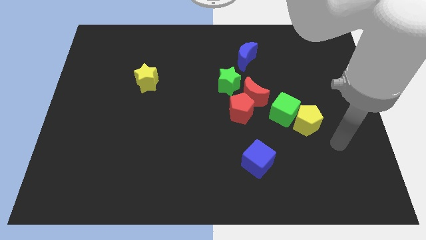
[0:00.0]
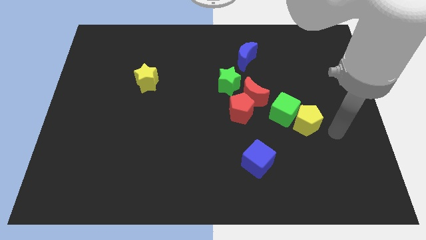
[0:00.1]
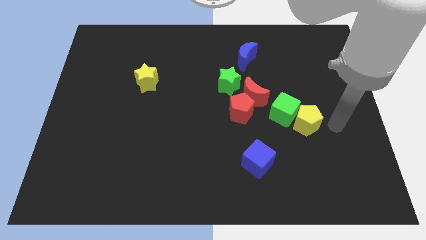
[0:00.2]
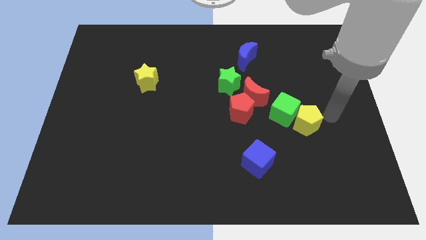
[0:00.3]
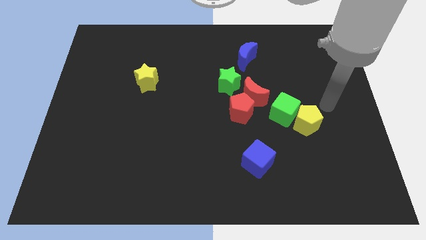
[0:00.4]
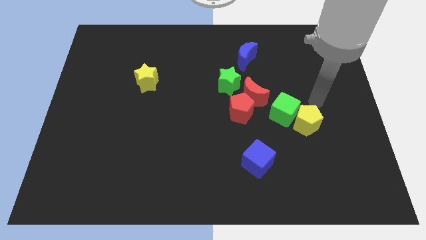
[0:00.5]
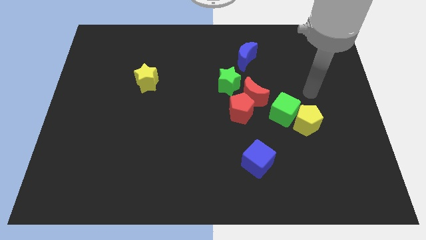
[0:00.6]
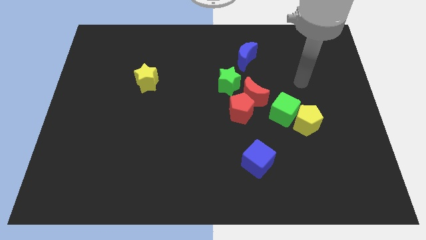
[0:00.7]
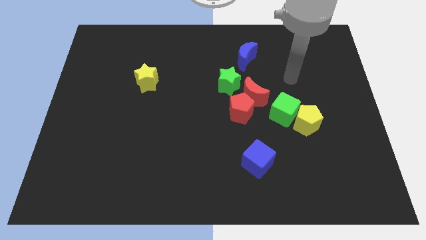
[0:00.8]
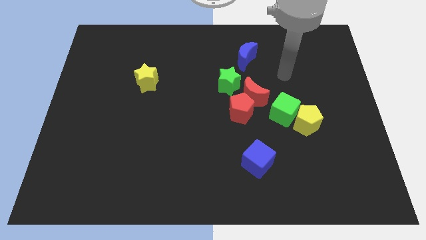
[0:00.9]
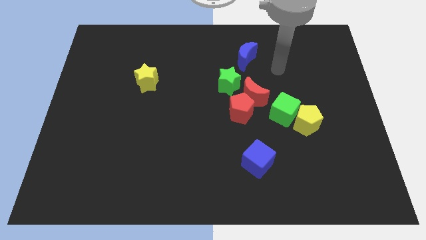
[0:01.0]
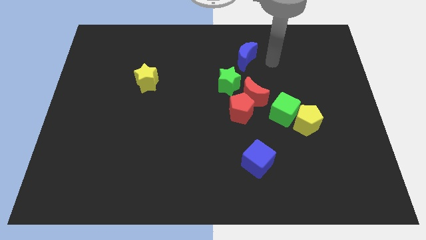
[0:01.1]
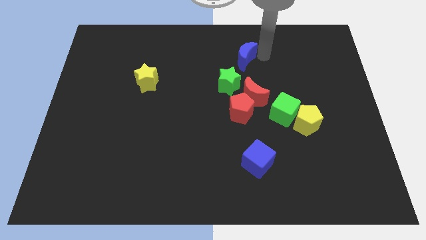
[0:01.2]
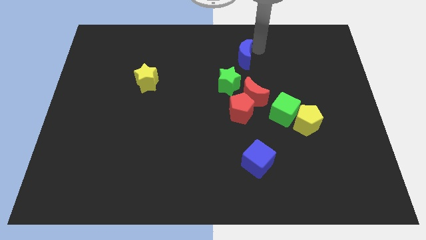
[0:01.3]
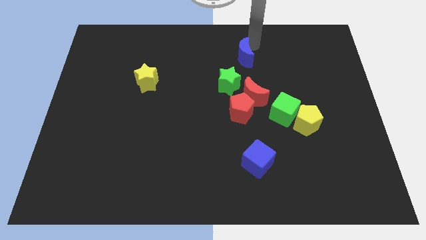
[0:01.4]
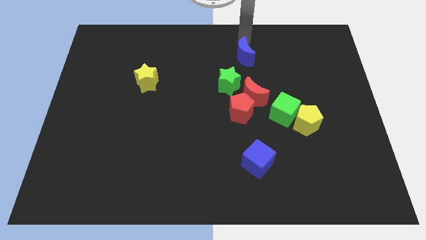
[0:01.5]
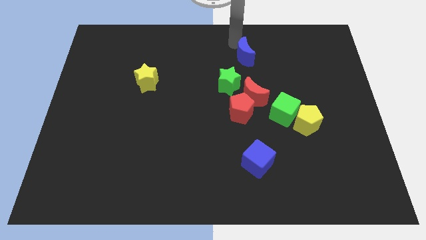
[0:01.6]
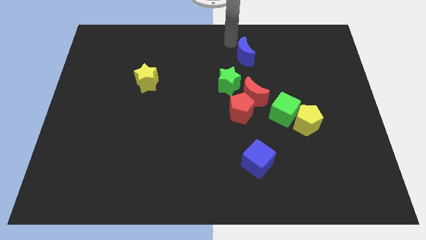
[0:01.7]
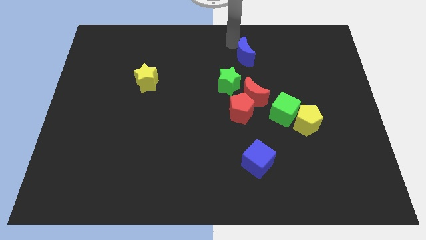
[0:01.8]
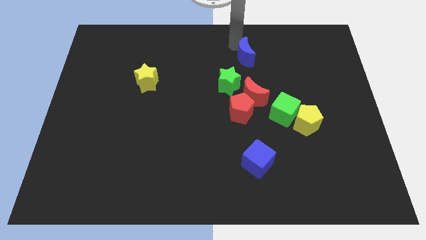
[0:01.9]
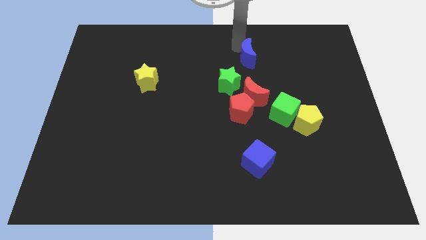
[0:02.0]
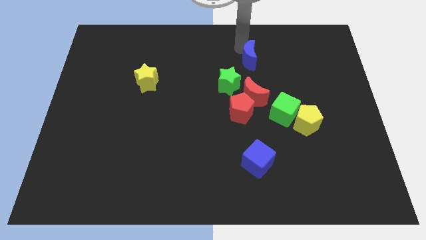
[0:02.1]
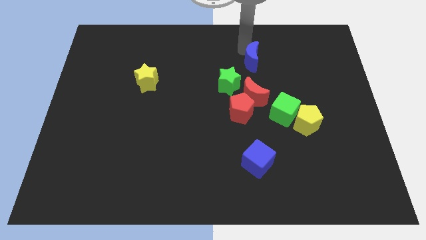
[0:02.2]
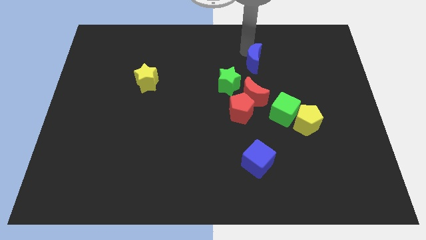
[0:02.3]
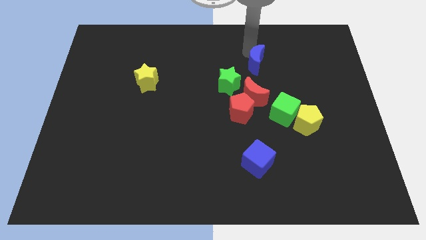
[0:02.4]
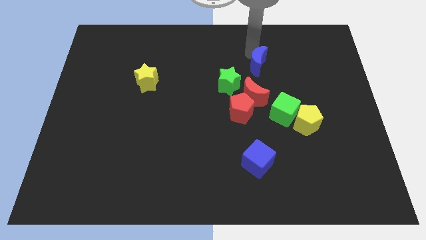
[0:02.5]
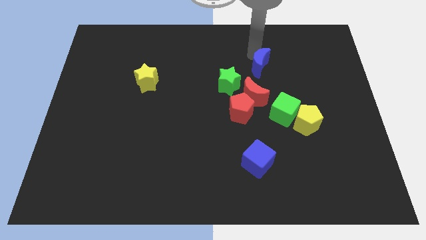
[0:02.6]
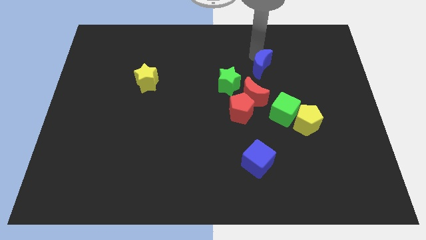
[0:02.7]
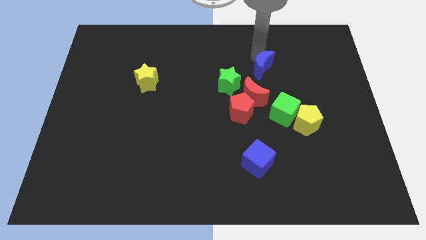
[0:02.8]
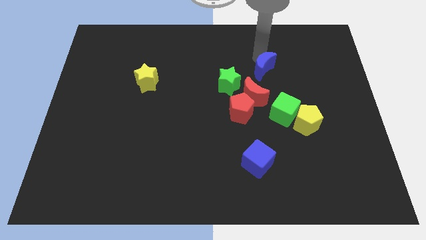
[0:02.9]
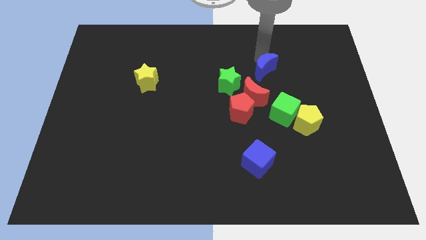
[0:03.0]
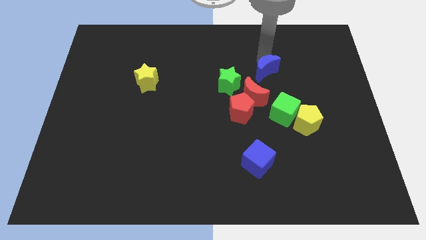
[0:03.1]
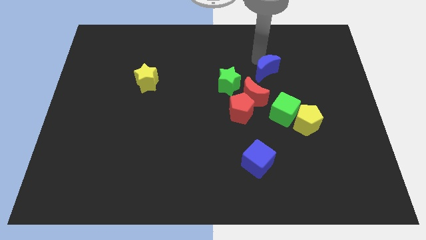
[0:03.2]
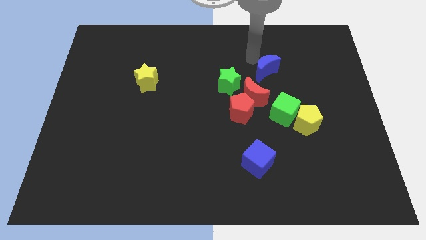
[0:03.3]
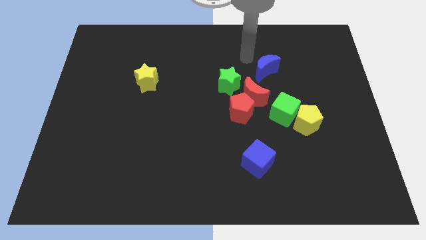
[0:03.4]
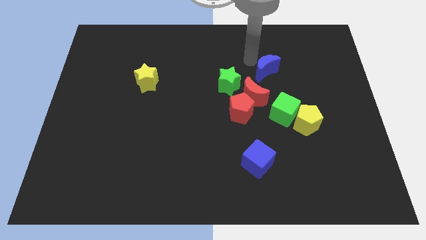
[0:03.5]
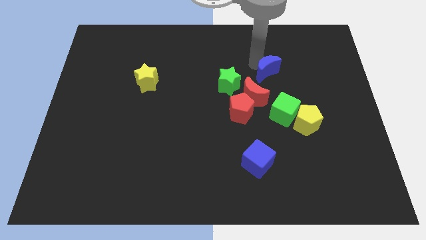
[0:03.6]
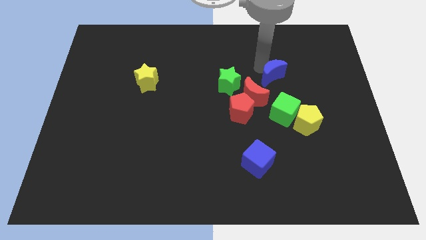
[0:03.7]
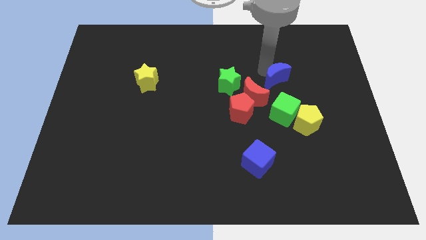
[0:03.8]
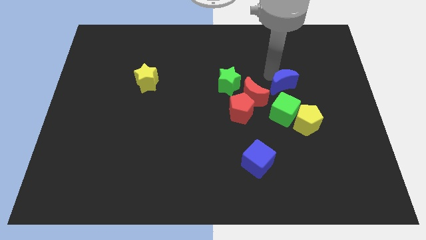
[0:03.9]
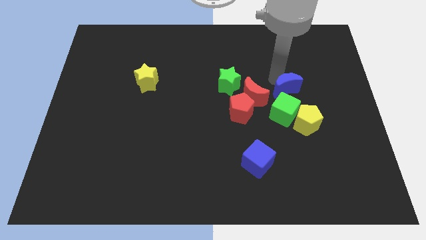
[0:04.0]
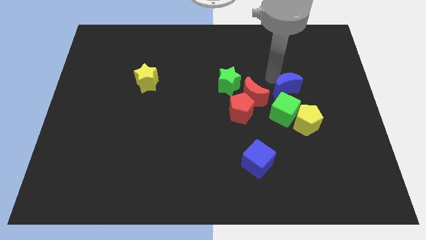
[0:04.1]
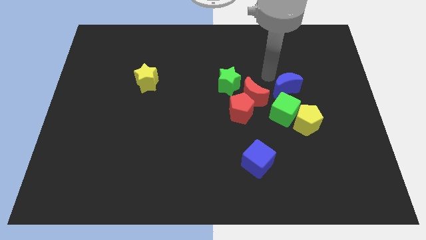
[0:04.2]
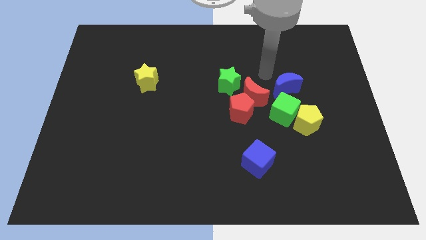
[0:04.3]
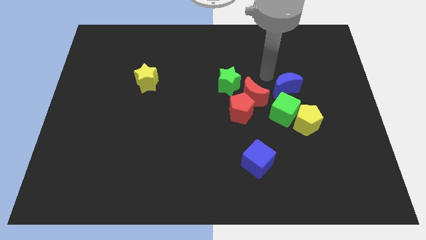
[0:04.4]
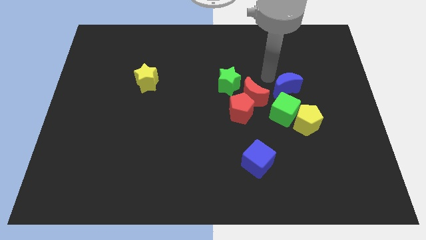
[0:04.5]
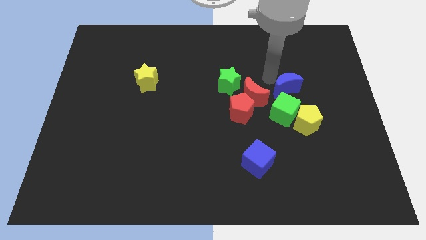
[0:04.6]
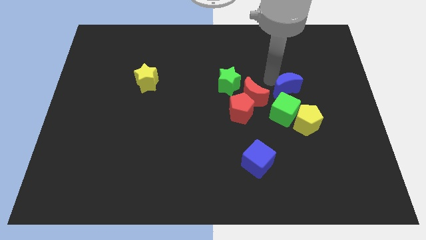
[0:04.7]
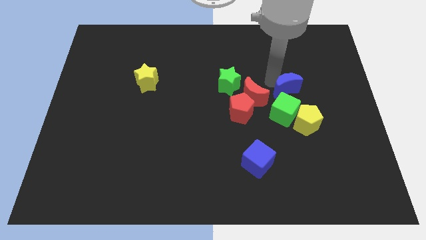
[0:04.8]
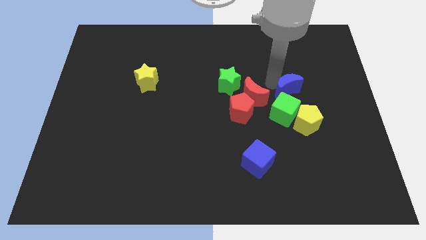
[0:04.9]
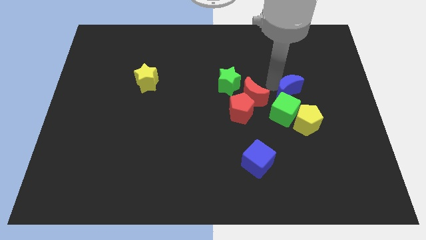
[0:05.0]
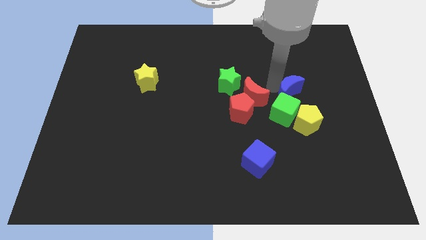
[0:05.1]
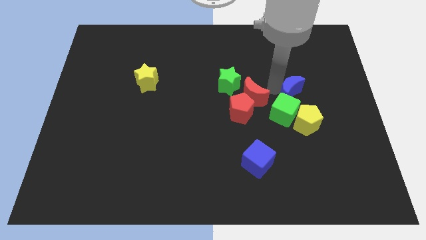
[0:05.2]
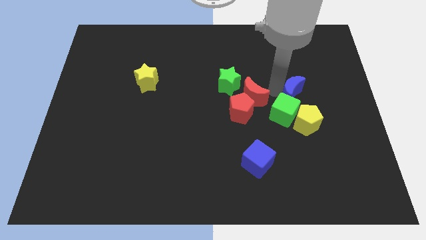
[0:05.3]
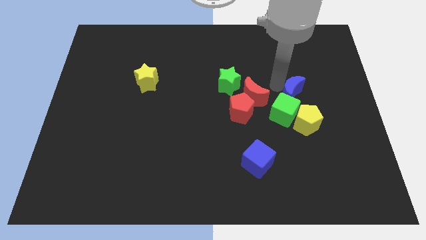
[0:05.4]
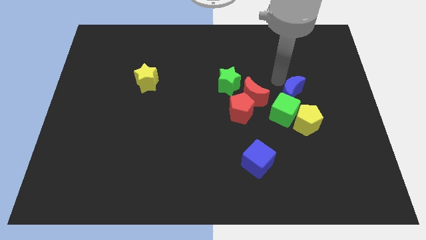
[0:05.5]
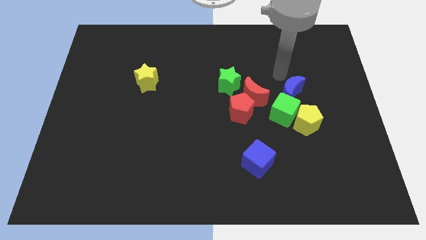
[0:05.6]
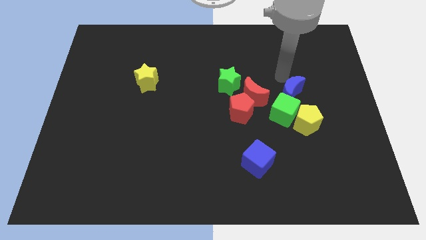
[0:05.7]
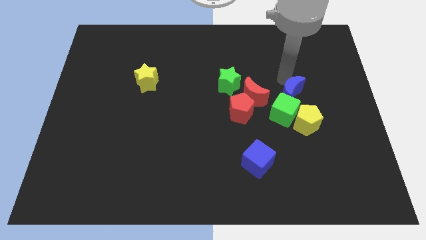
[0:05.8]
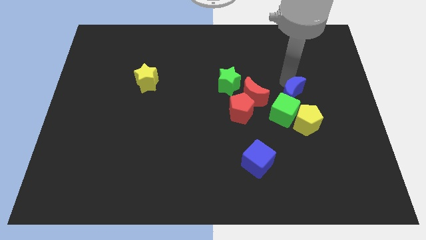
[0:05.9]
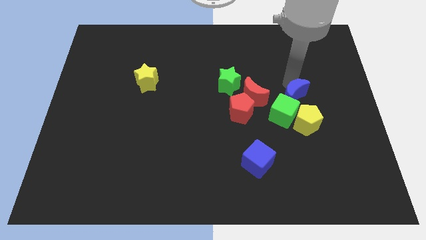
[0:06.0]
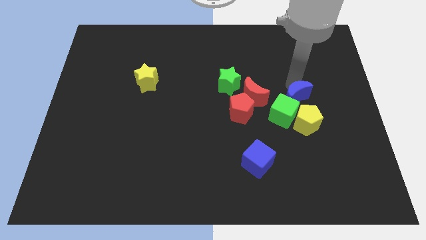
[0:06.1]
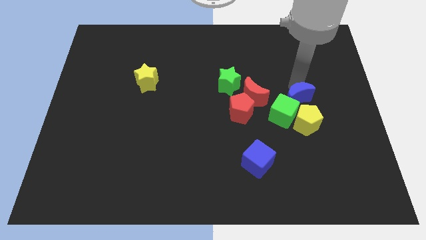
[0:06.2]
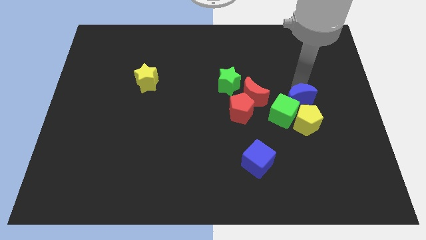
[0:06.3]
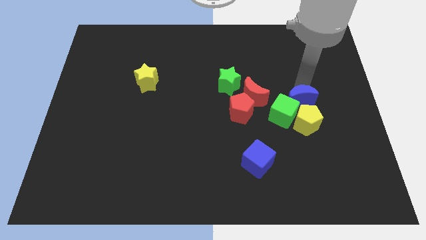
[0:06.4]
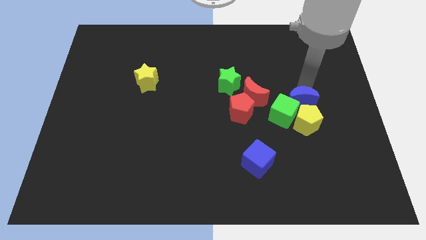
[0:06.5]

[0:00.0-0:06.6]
put the blue moon close to the yellow pentagon

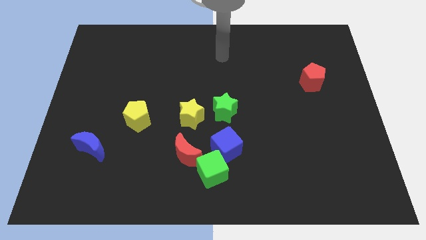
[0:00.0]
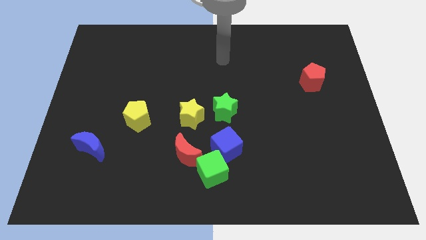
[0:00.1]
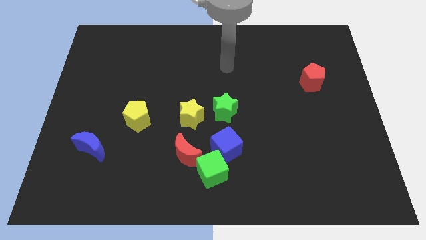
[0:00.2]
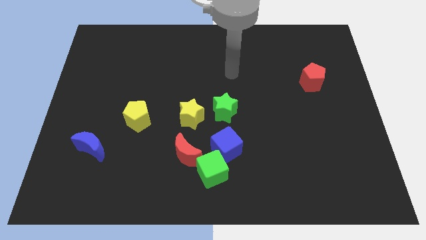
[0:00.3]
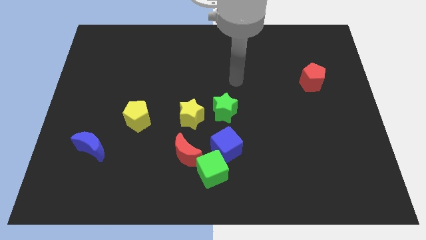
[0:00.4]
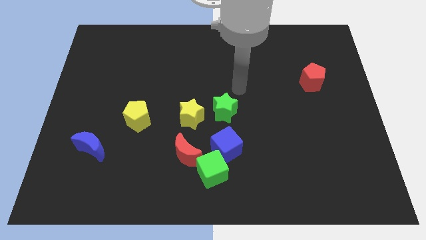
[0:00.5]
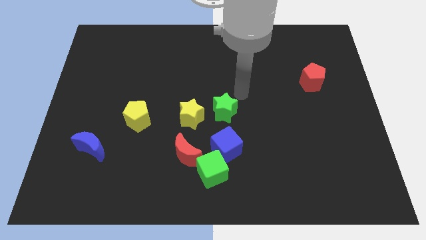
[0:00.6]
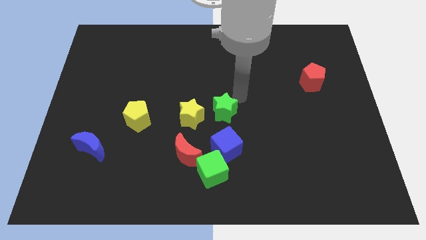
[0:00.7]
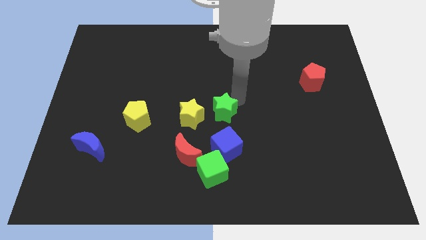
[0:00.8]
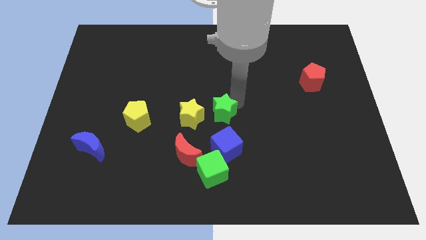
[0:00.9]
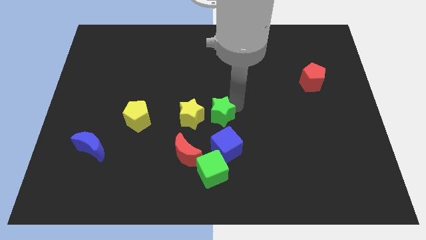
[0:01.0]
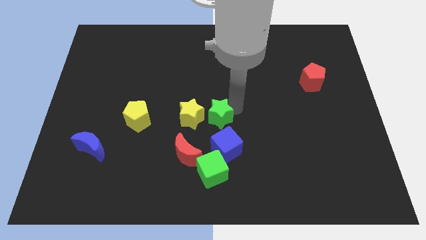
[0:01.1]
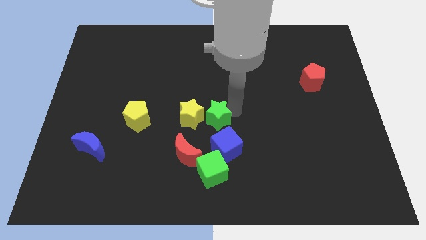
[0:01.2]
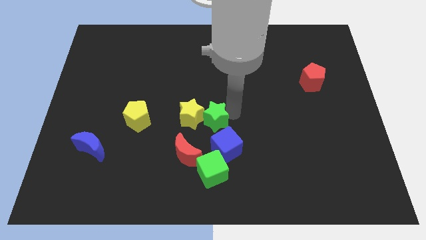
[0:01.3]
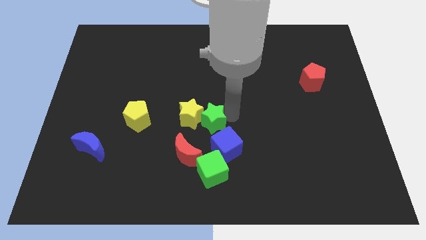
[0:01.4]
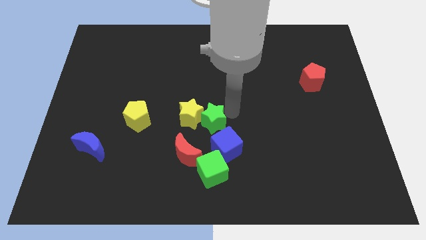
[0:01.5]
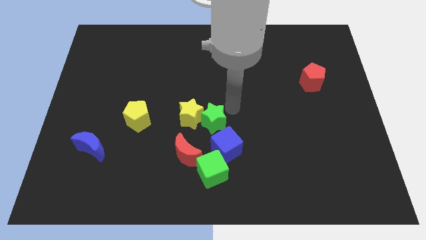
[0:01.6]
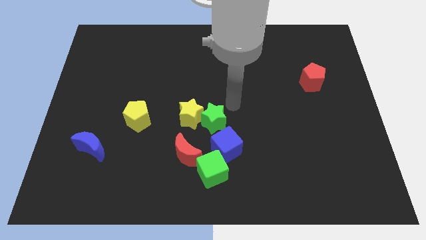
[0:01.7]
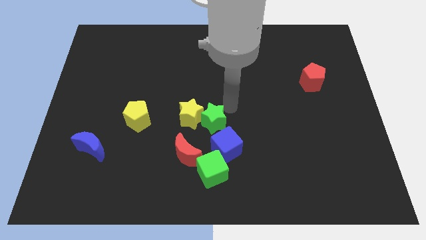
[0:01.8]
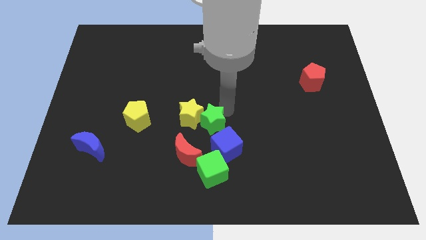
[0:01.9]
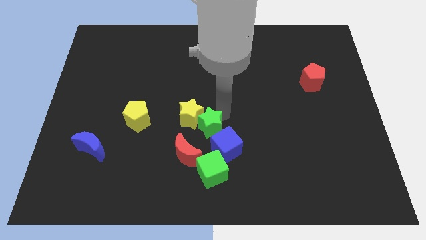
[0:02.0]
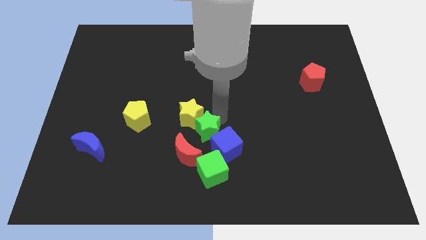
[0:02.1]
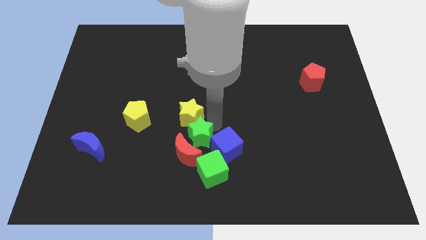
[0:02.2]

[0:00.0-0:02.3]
move the green star towards the red moon
